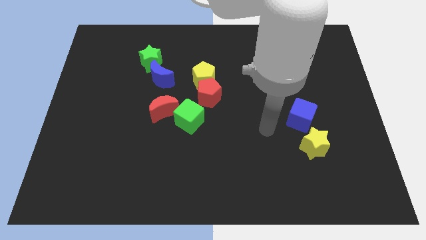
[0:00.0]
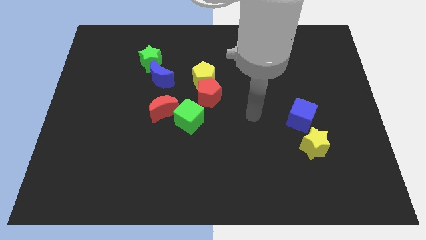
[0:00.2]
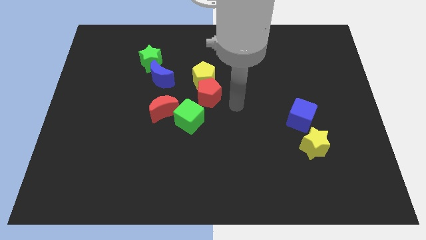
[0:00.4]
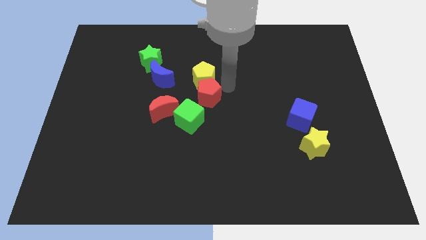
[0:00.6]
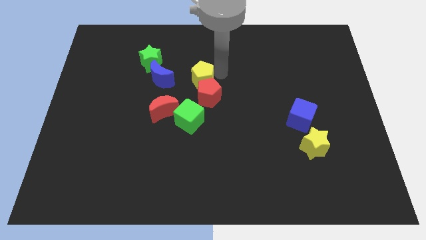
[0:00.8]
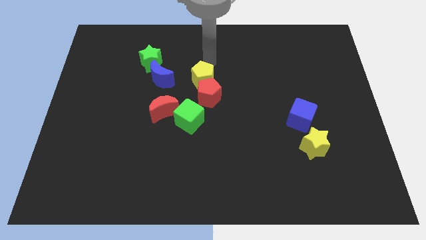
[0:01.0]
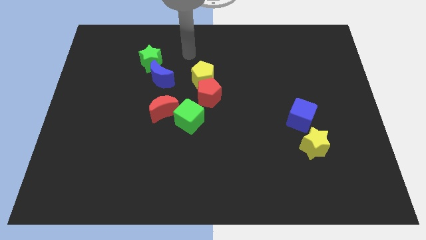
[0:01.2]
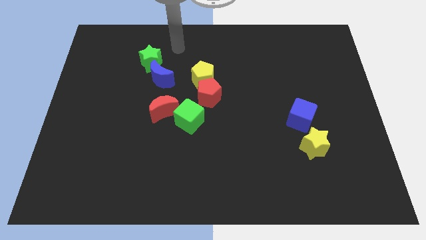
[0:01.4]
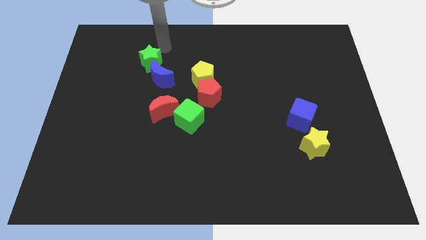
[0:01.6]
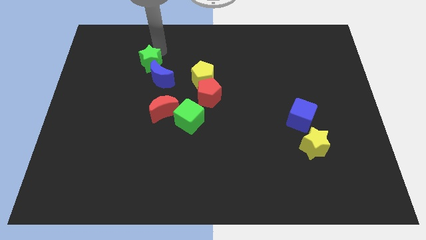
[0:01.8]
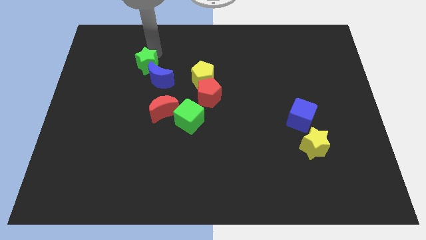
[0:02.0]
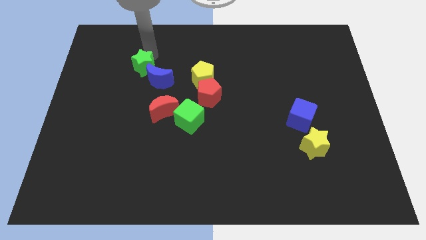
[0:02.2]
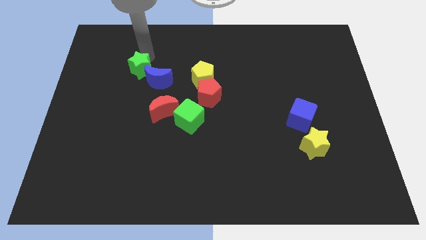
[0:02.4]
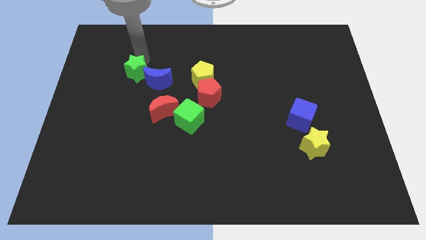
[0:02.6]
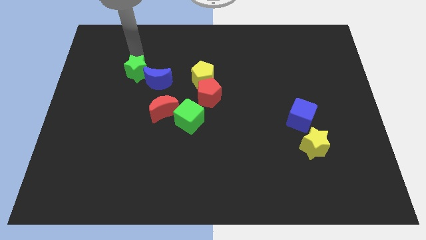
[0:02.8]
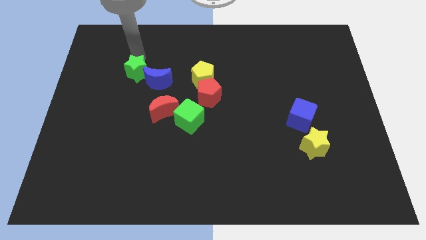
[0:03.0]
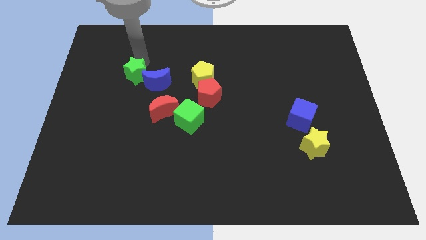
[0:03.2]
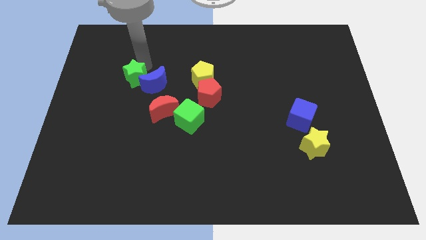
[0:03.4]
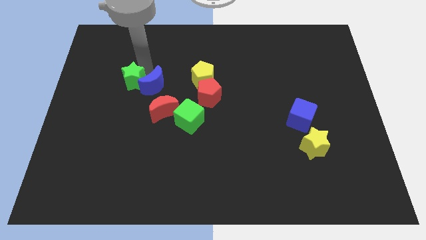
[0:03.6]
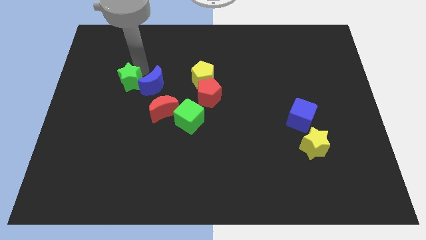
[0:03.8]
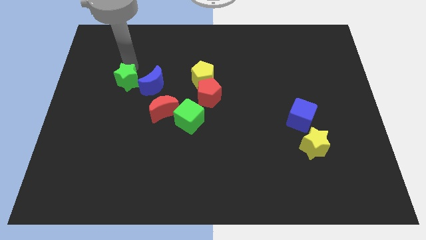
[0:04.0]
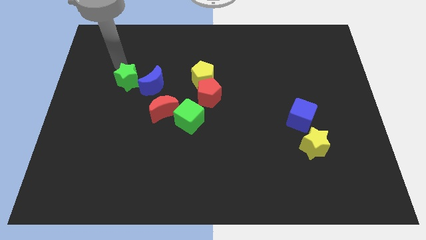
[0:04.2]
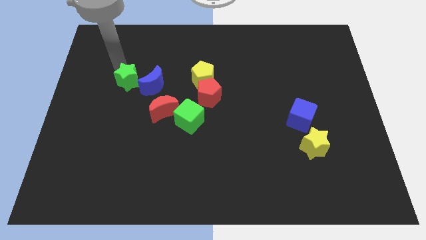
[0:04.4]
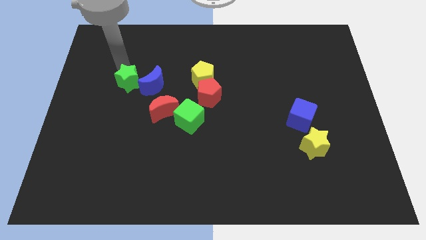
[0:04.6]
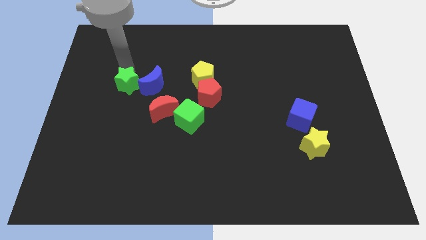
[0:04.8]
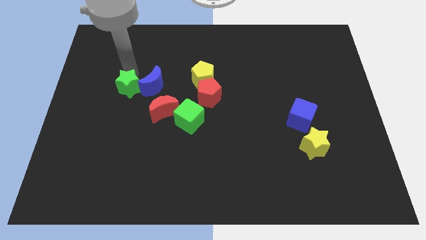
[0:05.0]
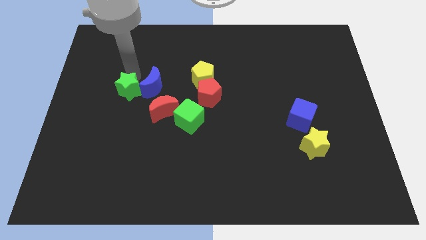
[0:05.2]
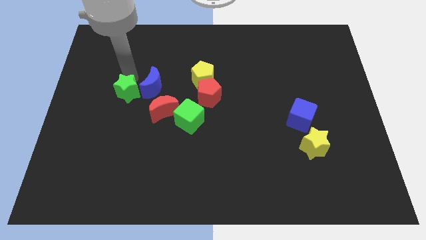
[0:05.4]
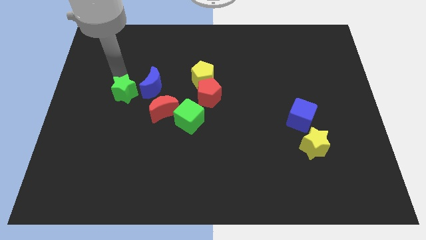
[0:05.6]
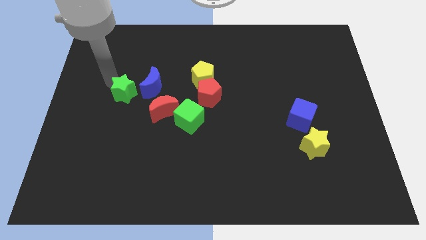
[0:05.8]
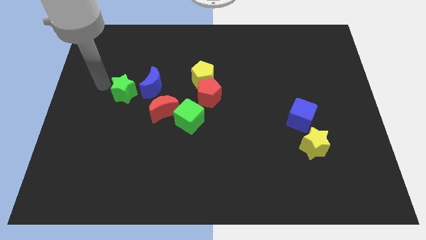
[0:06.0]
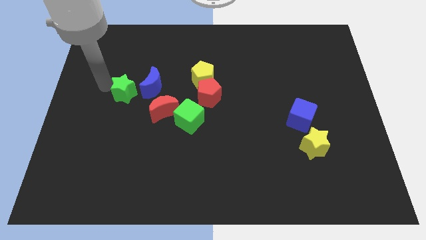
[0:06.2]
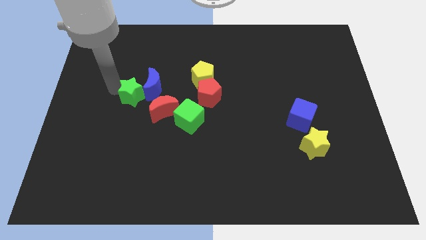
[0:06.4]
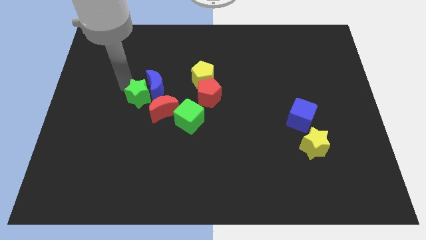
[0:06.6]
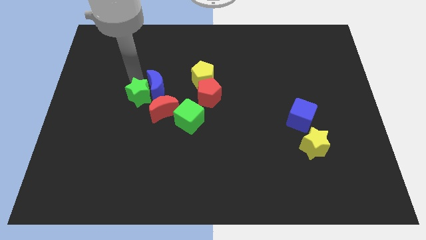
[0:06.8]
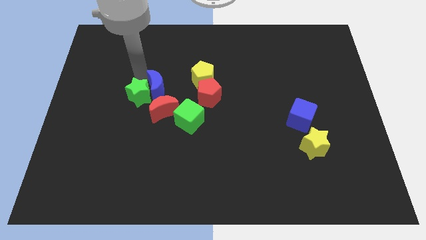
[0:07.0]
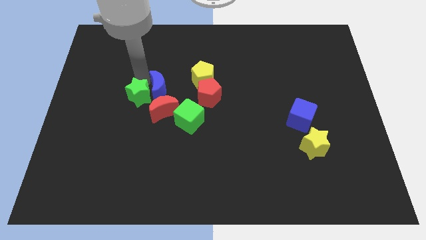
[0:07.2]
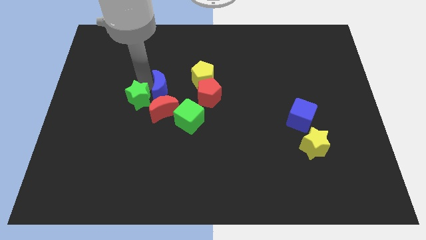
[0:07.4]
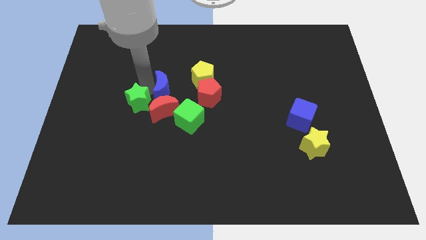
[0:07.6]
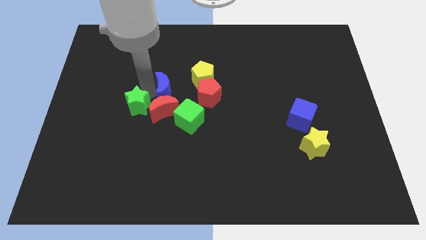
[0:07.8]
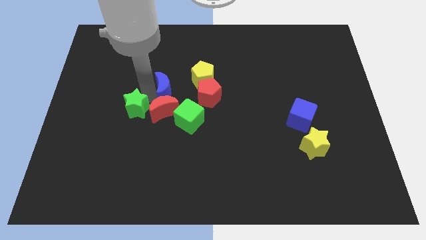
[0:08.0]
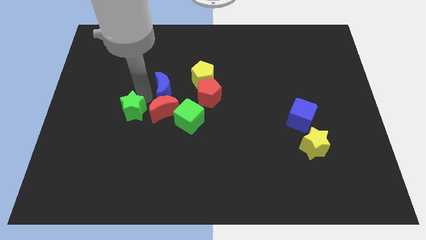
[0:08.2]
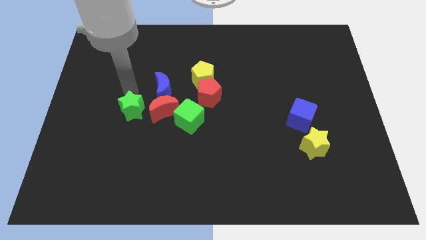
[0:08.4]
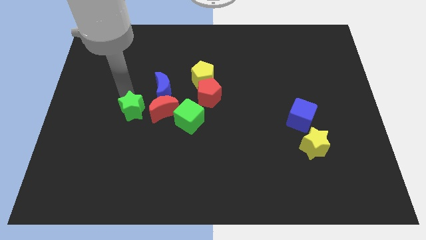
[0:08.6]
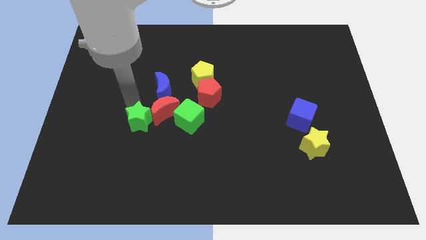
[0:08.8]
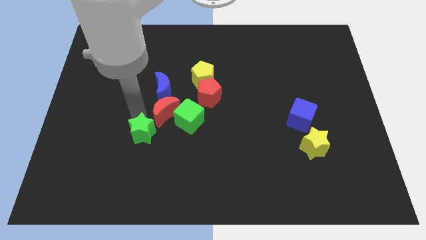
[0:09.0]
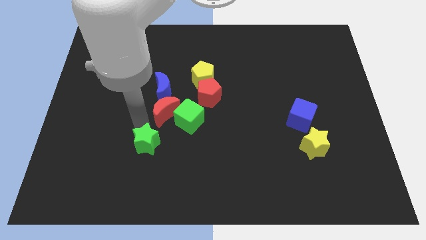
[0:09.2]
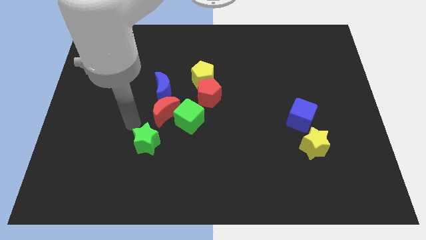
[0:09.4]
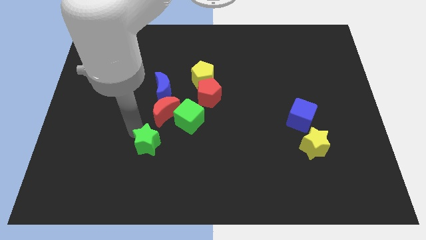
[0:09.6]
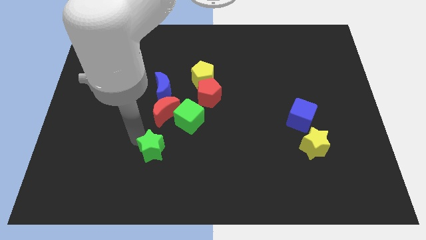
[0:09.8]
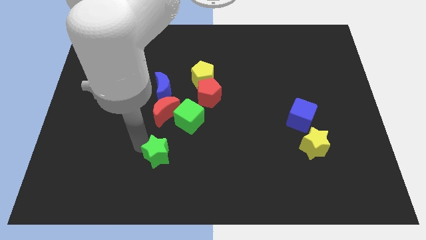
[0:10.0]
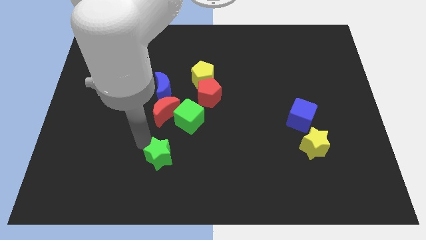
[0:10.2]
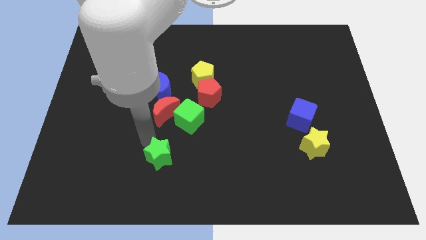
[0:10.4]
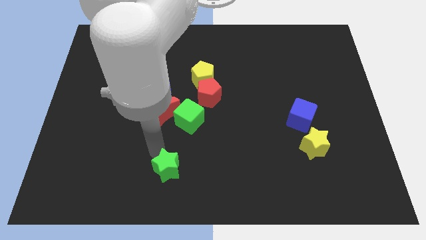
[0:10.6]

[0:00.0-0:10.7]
put the green star to the bottom side

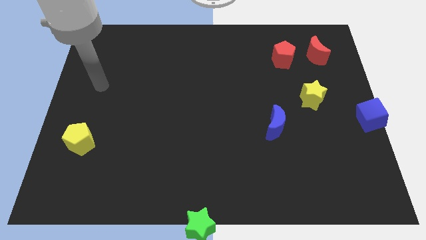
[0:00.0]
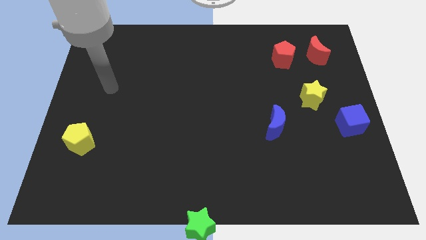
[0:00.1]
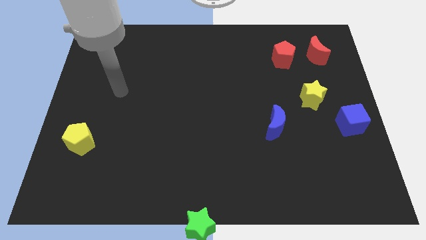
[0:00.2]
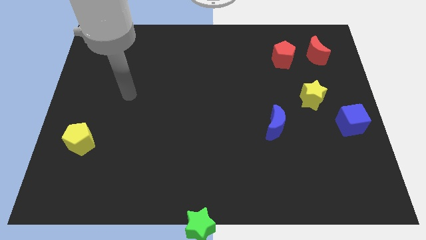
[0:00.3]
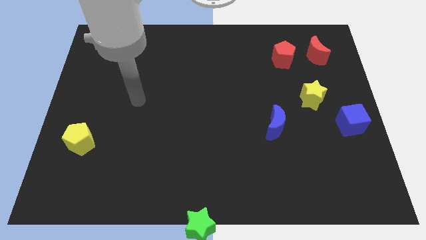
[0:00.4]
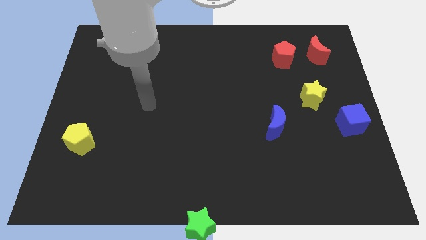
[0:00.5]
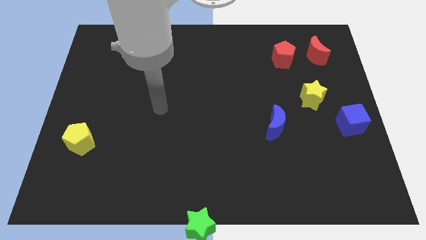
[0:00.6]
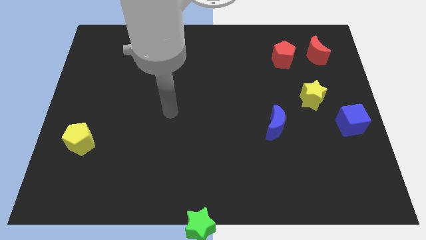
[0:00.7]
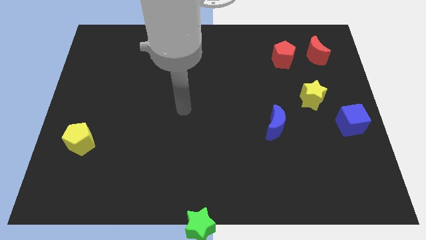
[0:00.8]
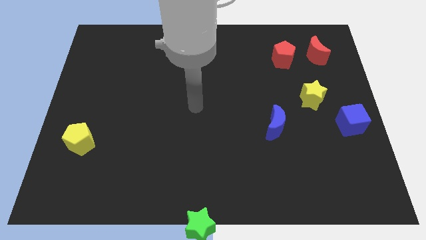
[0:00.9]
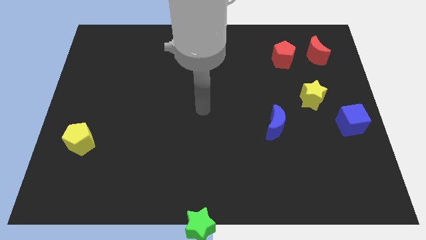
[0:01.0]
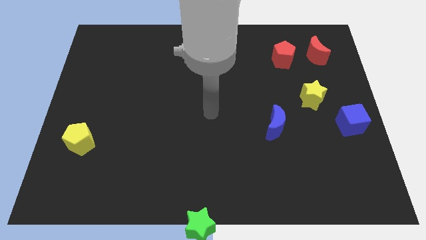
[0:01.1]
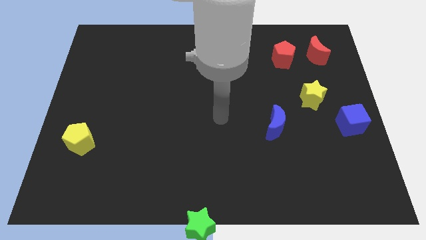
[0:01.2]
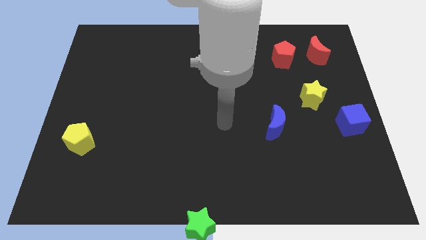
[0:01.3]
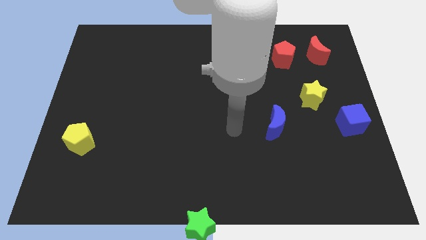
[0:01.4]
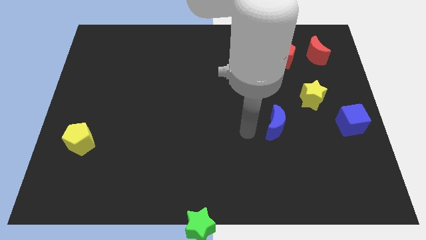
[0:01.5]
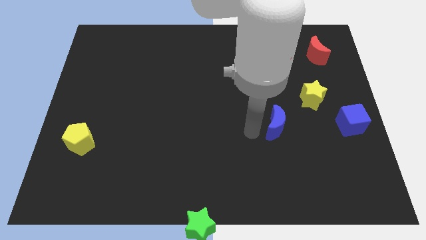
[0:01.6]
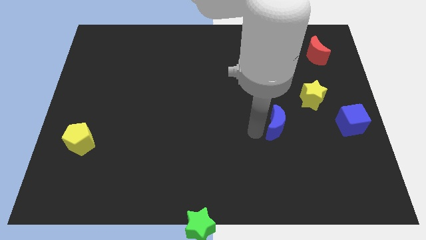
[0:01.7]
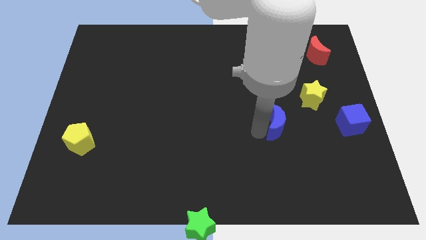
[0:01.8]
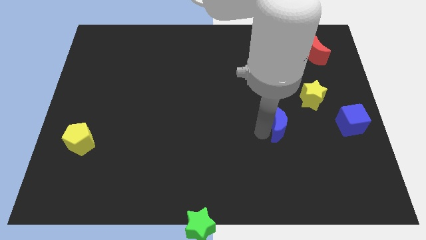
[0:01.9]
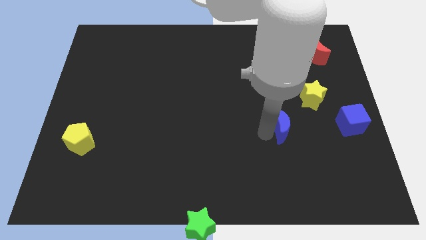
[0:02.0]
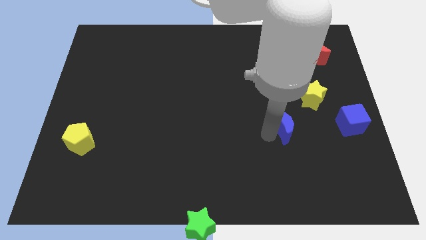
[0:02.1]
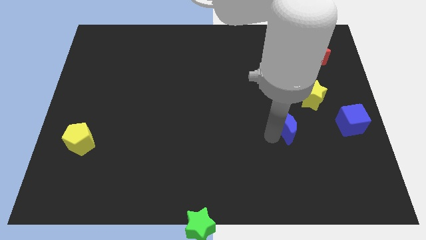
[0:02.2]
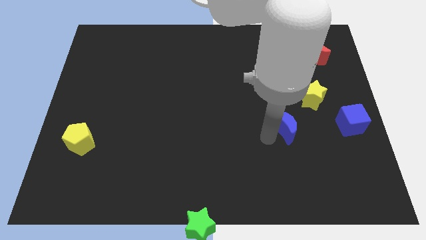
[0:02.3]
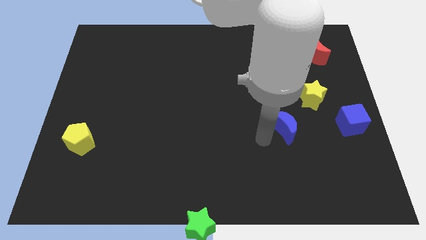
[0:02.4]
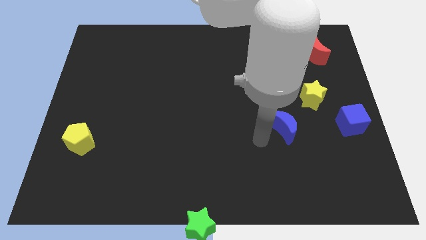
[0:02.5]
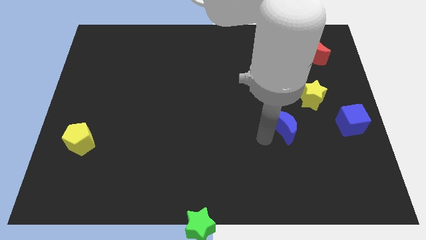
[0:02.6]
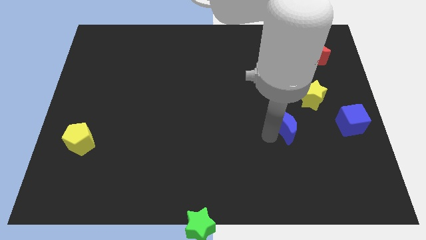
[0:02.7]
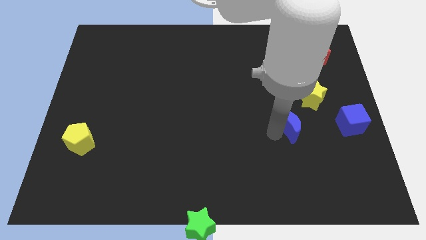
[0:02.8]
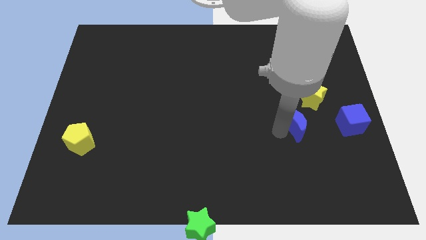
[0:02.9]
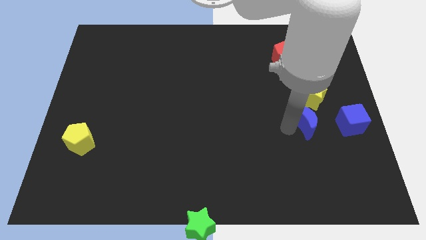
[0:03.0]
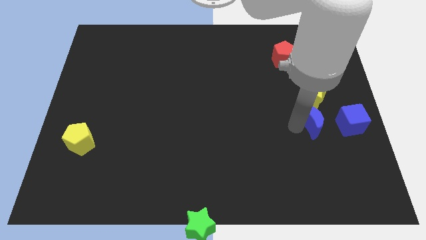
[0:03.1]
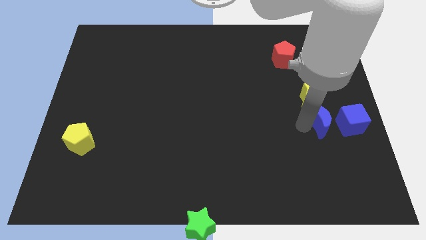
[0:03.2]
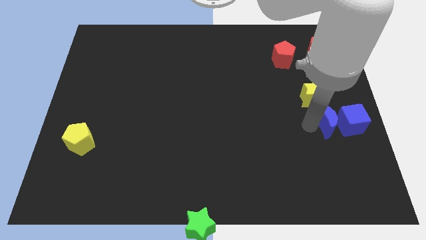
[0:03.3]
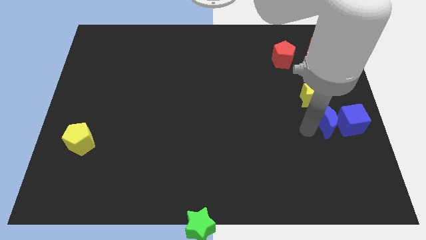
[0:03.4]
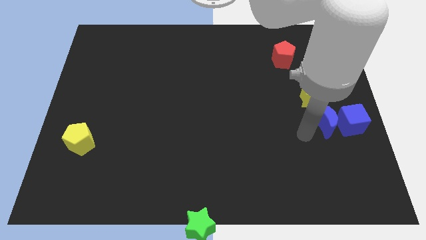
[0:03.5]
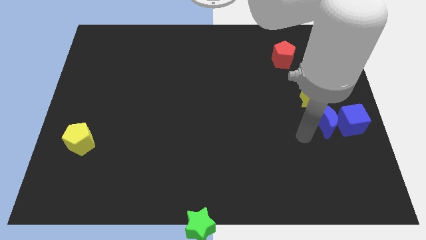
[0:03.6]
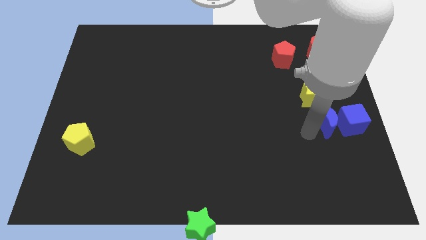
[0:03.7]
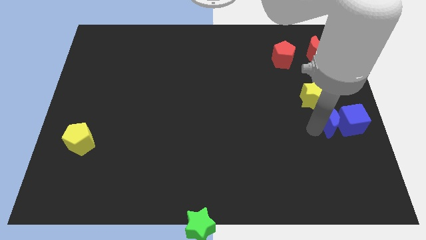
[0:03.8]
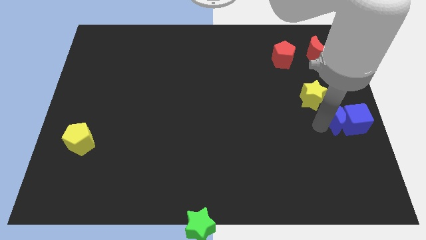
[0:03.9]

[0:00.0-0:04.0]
push the blue moon to the right side
